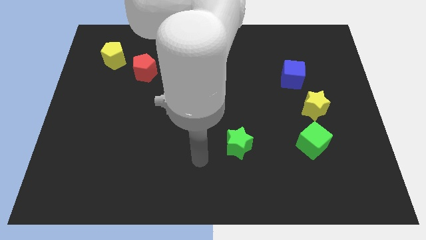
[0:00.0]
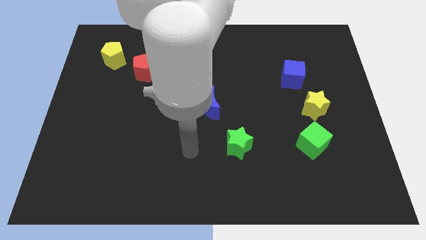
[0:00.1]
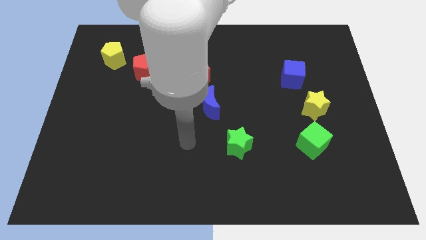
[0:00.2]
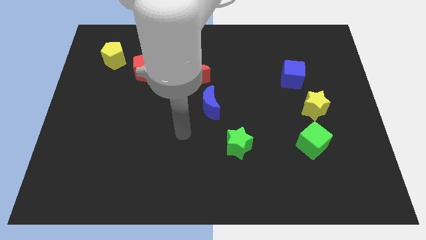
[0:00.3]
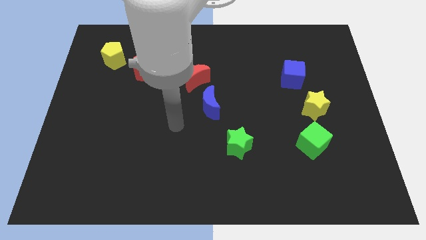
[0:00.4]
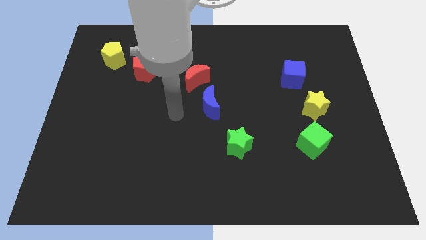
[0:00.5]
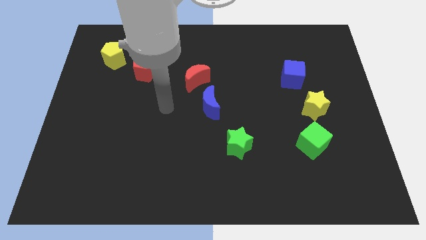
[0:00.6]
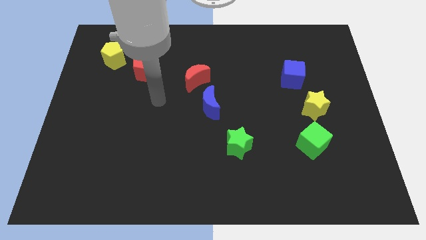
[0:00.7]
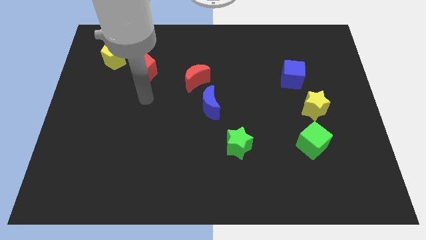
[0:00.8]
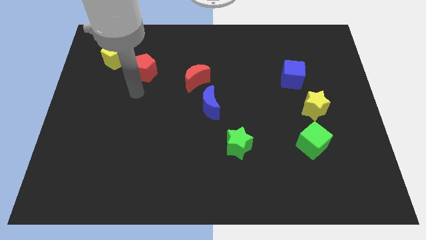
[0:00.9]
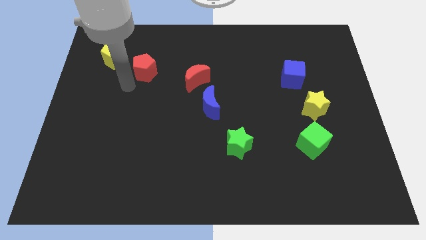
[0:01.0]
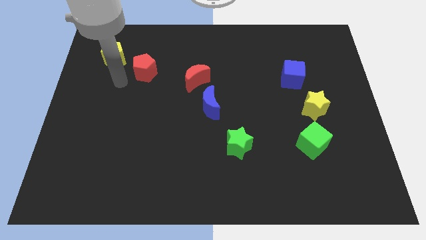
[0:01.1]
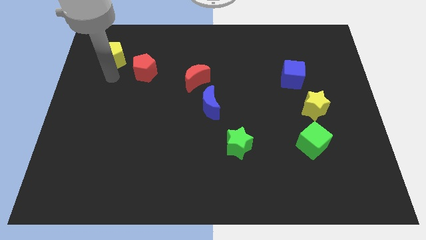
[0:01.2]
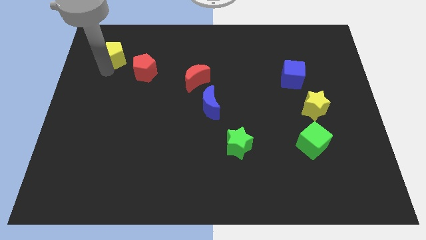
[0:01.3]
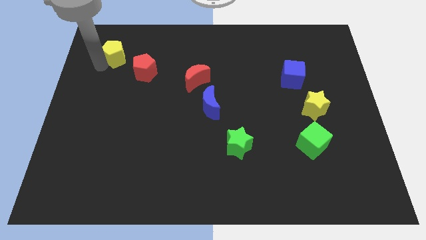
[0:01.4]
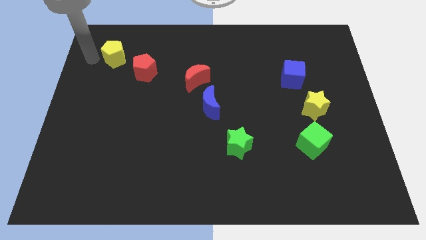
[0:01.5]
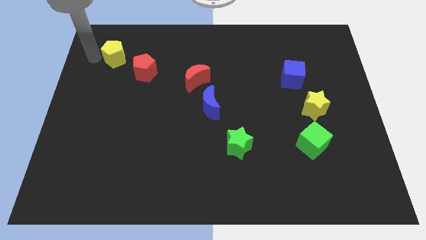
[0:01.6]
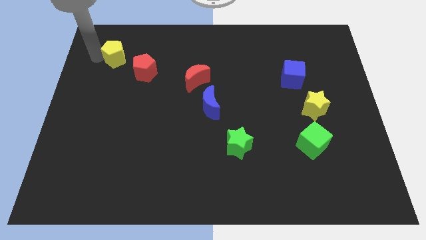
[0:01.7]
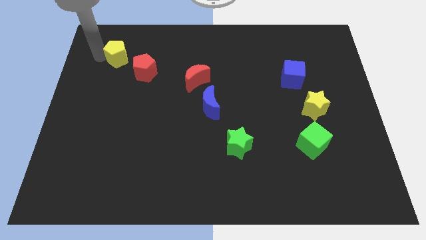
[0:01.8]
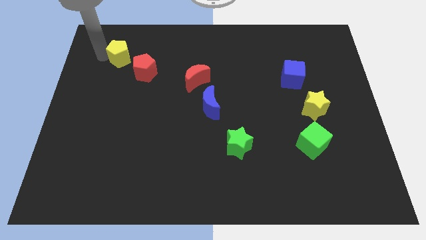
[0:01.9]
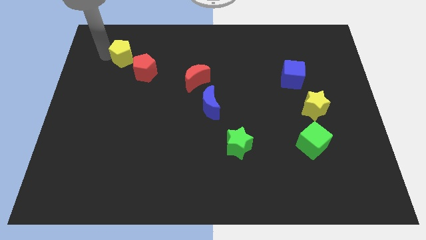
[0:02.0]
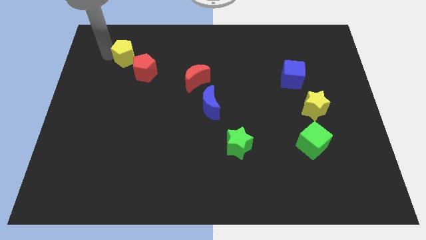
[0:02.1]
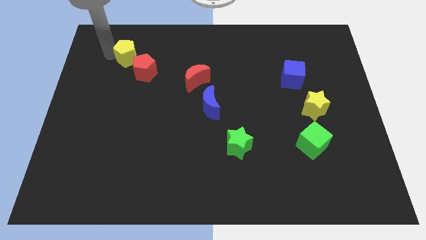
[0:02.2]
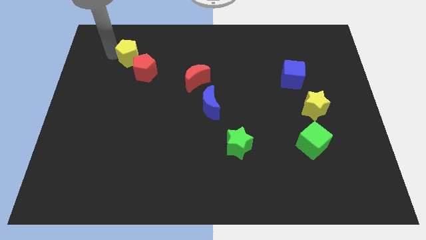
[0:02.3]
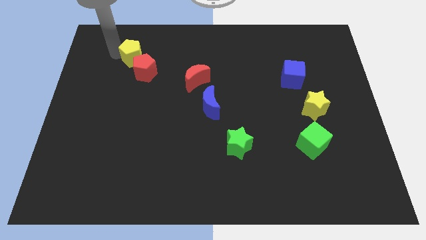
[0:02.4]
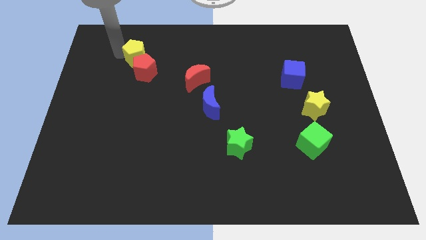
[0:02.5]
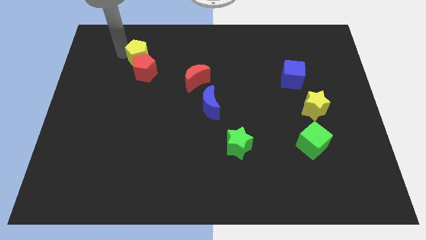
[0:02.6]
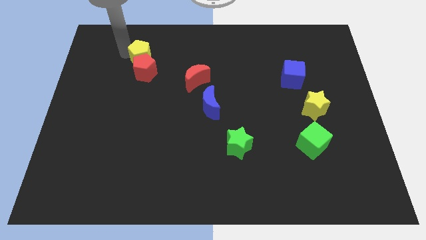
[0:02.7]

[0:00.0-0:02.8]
push the yellow pentagon right somewhat

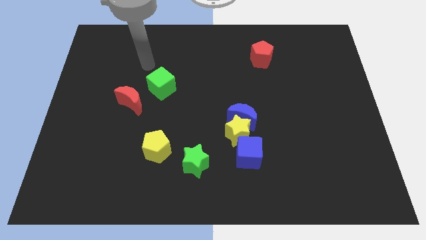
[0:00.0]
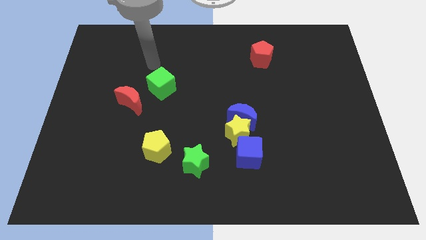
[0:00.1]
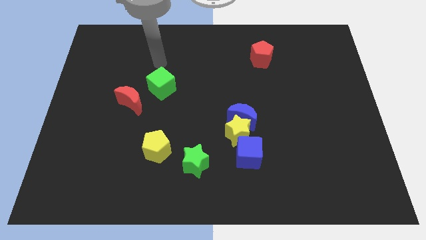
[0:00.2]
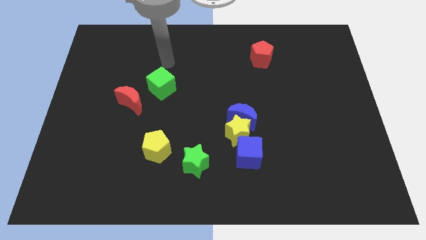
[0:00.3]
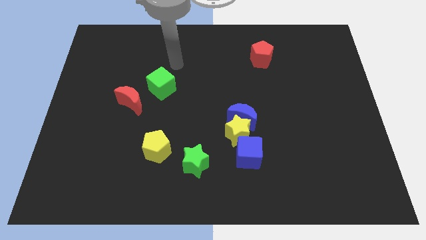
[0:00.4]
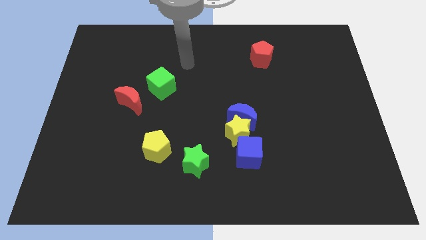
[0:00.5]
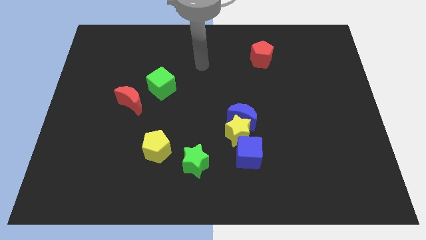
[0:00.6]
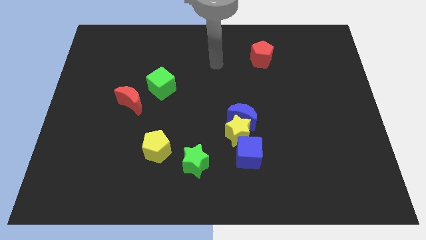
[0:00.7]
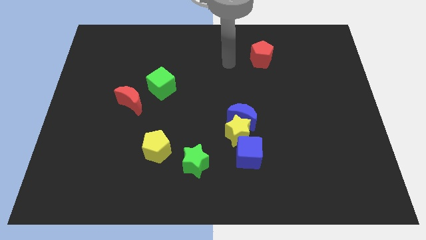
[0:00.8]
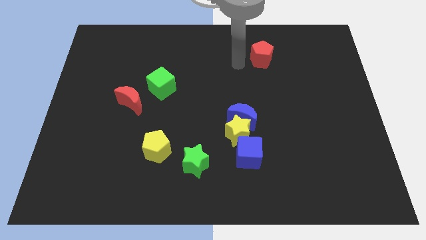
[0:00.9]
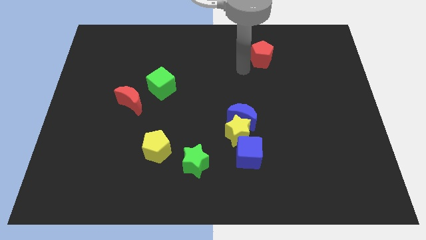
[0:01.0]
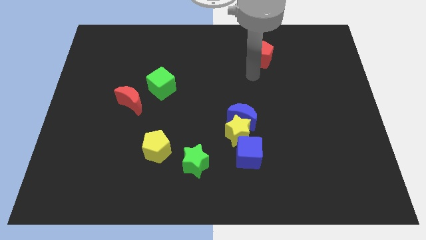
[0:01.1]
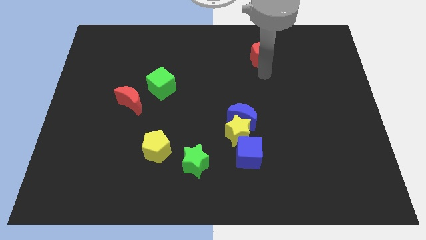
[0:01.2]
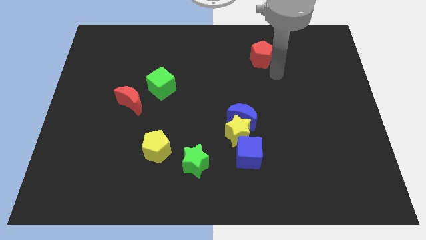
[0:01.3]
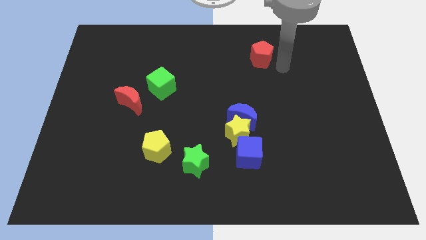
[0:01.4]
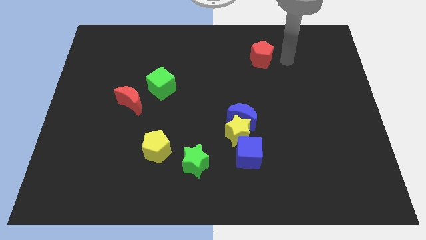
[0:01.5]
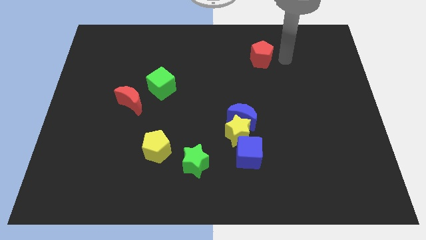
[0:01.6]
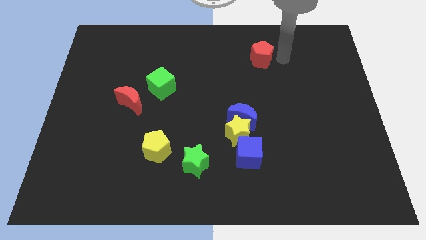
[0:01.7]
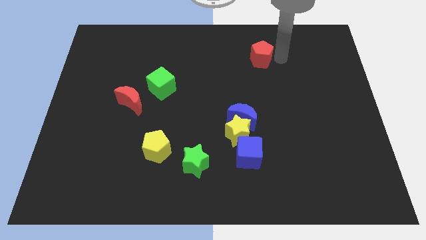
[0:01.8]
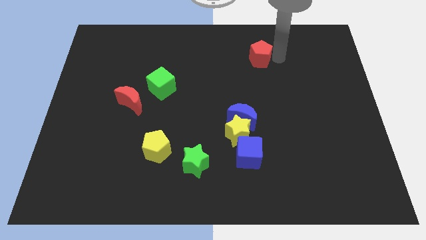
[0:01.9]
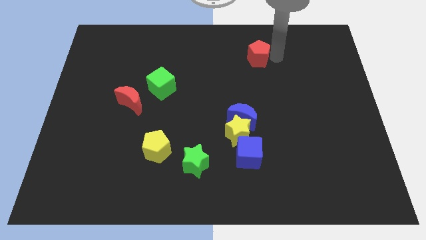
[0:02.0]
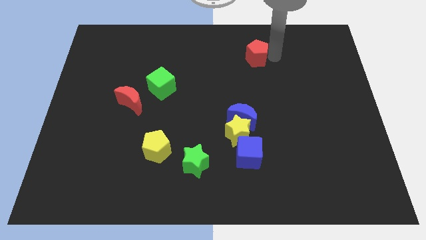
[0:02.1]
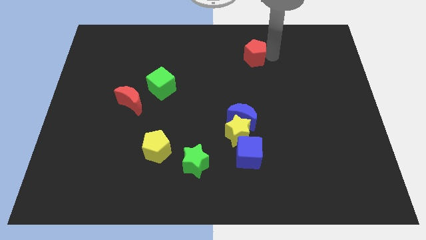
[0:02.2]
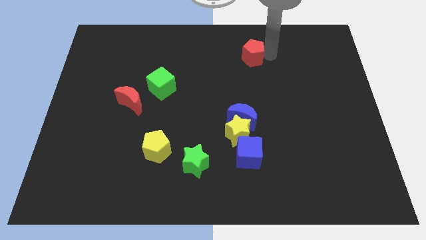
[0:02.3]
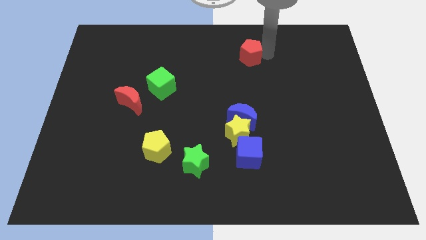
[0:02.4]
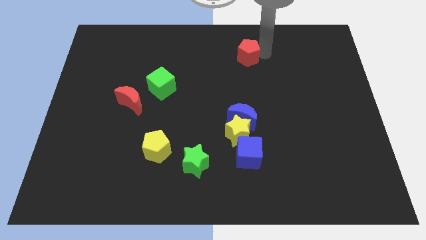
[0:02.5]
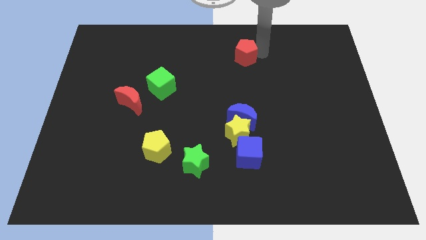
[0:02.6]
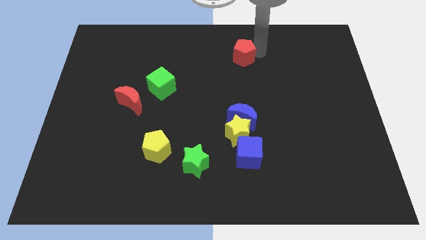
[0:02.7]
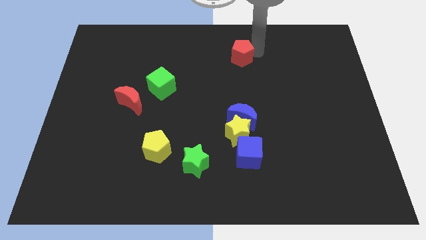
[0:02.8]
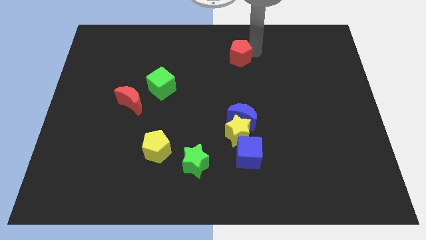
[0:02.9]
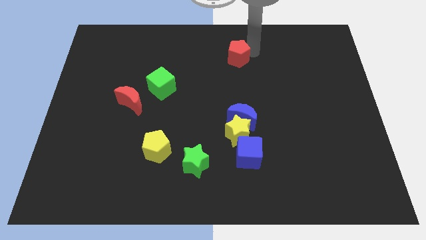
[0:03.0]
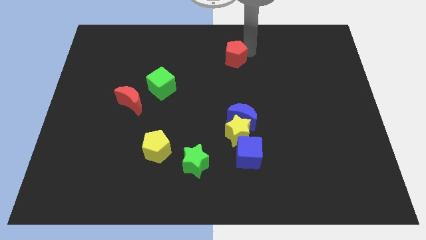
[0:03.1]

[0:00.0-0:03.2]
slightly move the red pentagon to the left

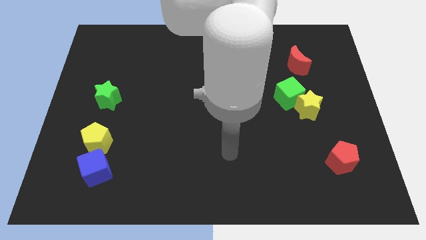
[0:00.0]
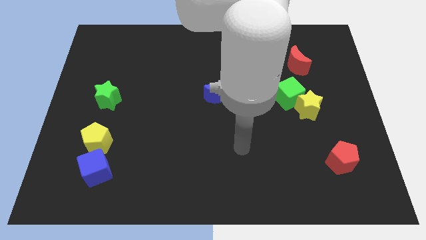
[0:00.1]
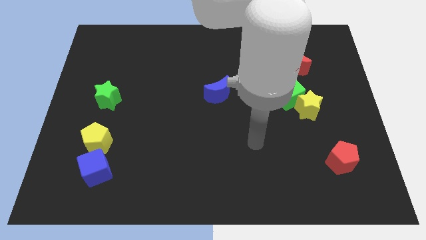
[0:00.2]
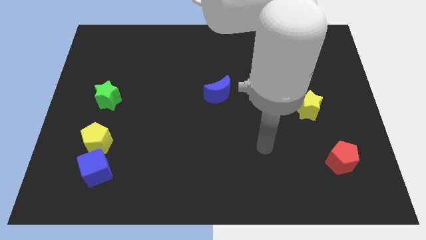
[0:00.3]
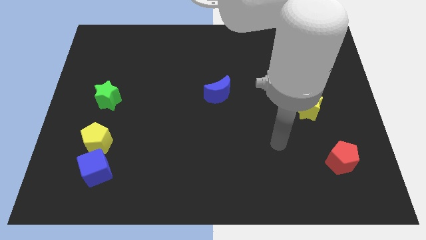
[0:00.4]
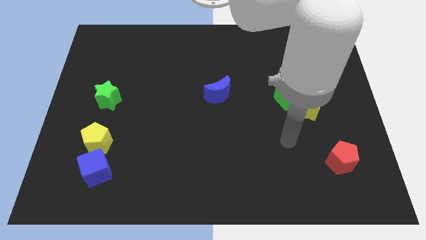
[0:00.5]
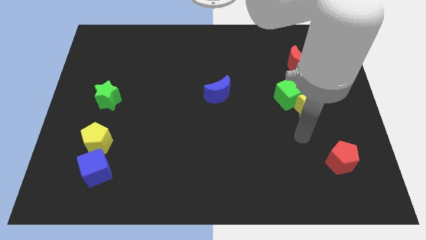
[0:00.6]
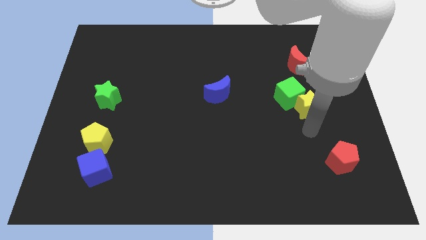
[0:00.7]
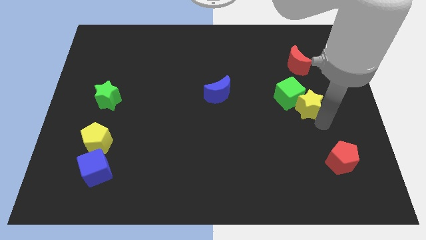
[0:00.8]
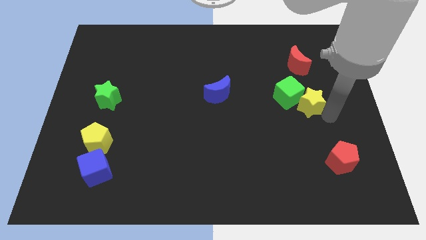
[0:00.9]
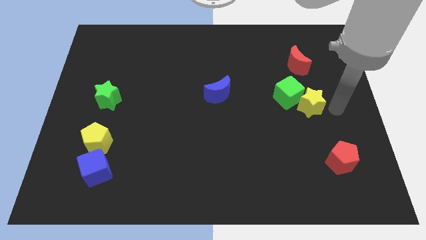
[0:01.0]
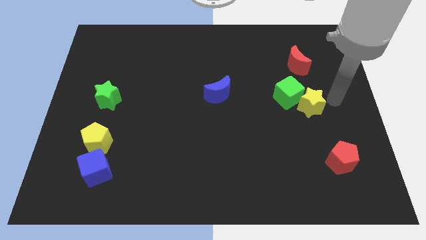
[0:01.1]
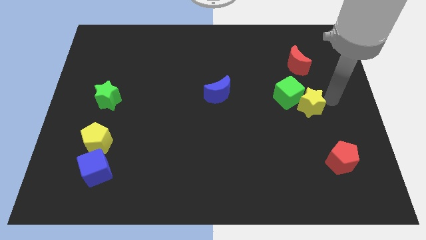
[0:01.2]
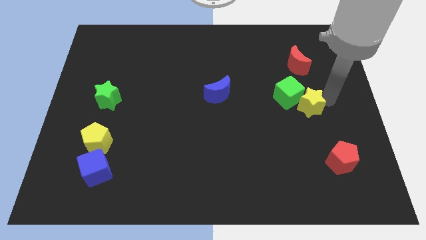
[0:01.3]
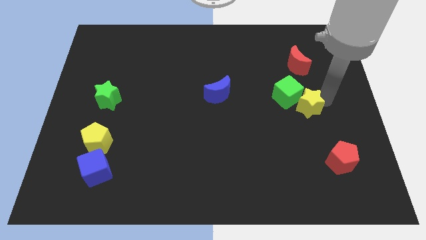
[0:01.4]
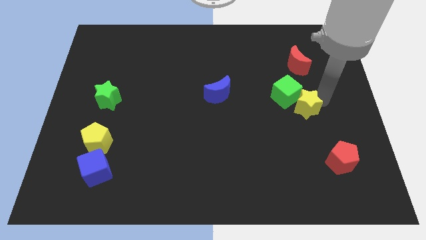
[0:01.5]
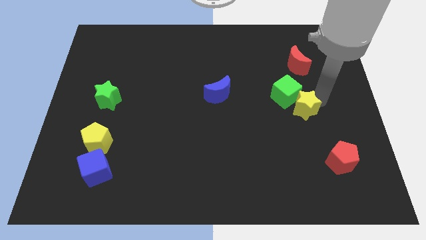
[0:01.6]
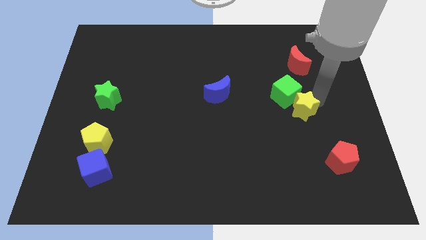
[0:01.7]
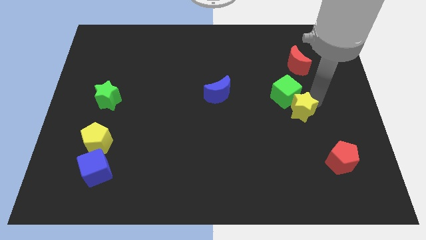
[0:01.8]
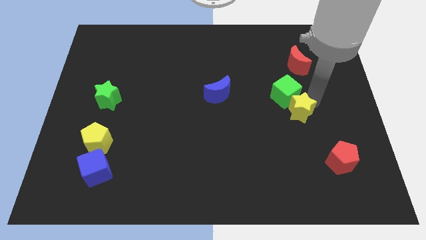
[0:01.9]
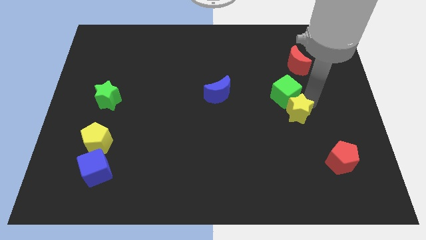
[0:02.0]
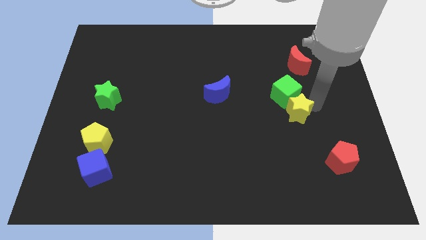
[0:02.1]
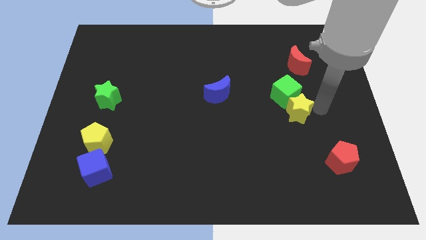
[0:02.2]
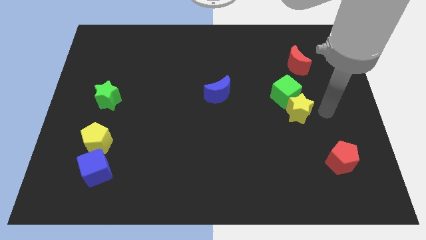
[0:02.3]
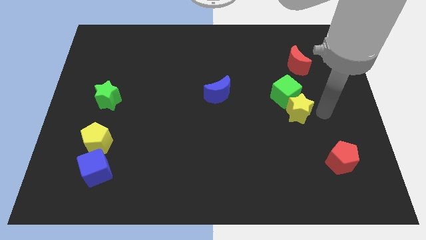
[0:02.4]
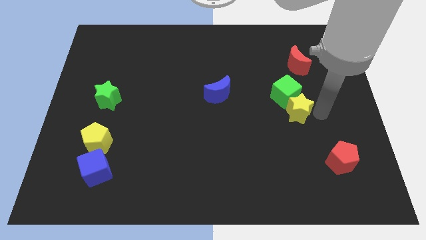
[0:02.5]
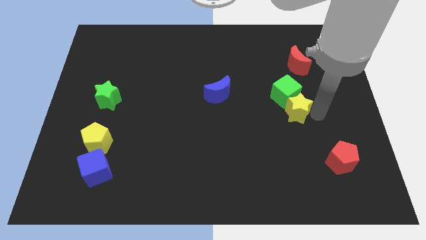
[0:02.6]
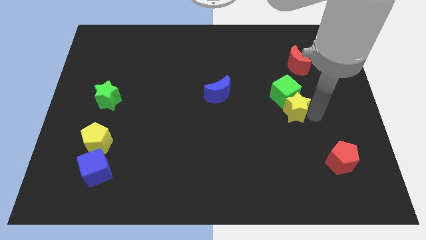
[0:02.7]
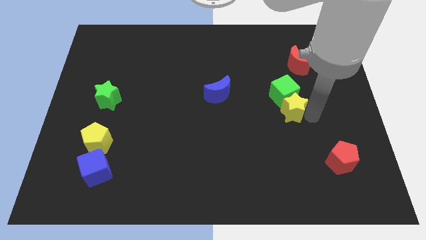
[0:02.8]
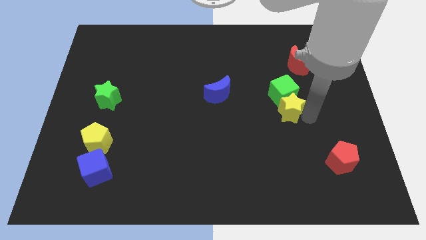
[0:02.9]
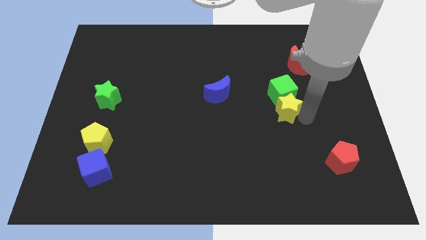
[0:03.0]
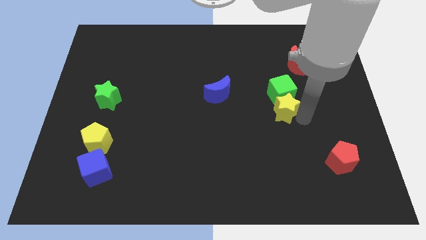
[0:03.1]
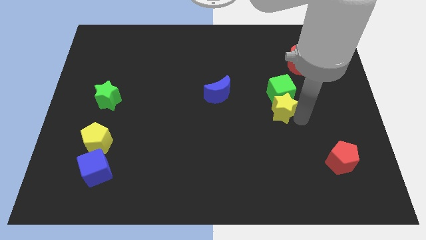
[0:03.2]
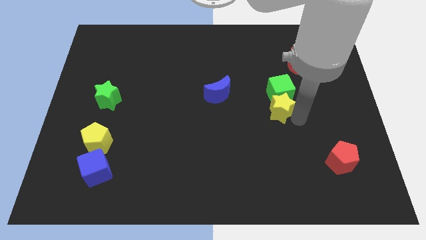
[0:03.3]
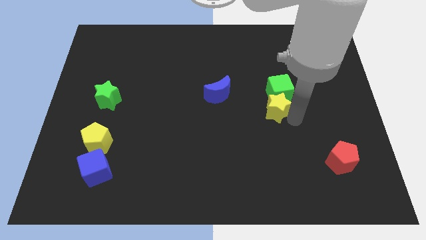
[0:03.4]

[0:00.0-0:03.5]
slide the yellow star to the left a little bit
